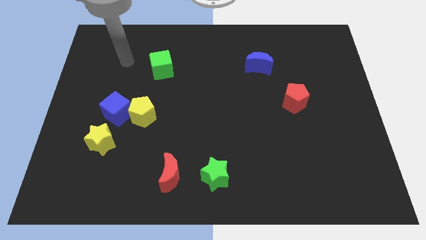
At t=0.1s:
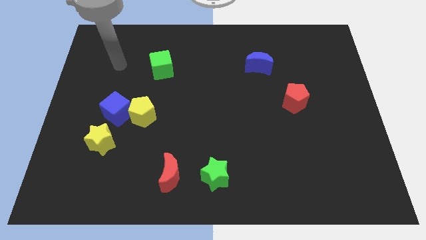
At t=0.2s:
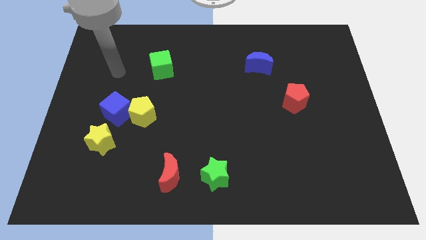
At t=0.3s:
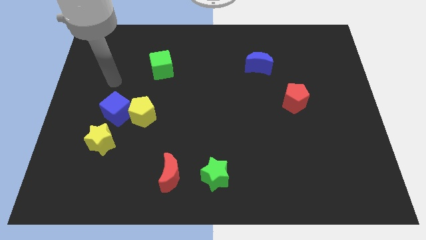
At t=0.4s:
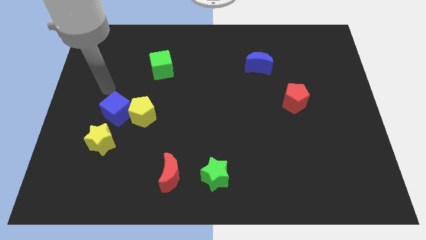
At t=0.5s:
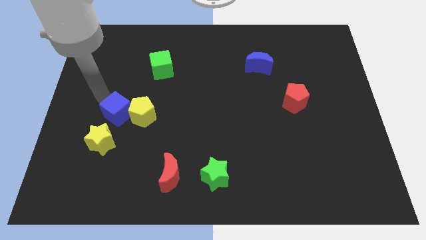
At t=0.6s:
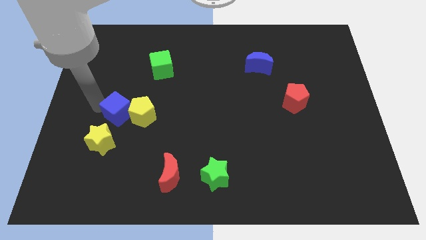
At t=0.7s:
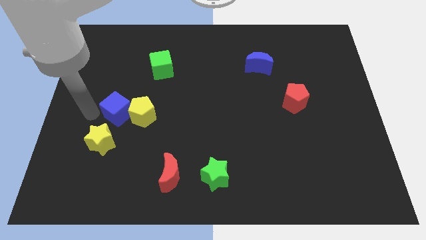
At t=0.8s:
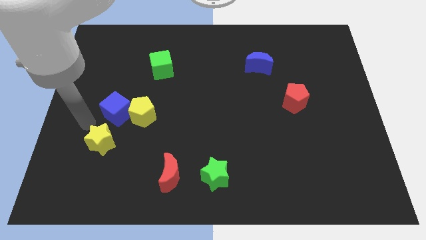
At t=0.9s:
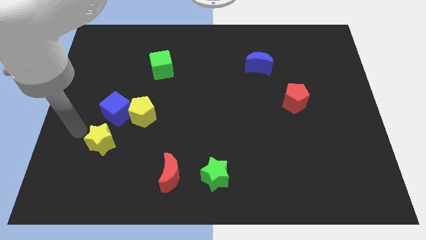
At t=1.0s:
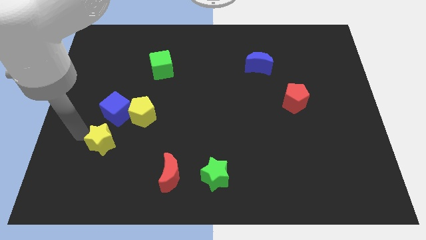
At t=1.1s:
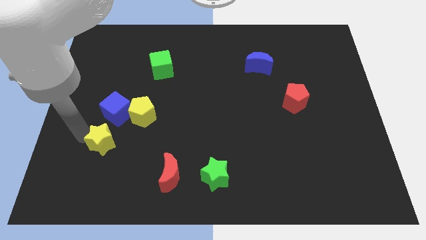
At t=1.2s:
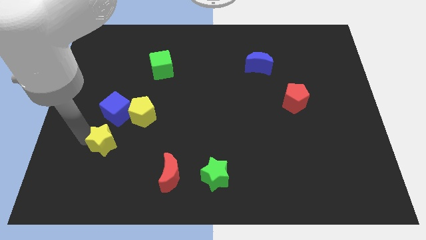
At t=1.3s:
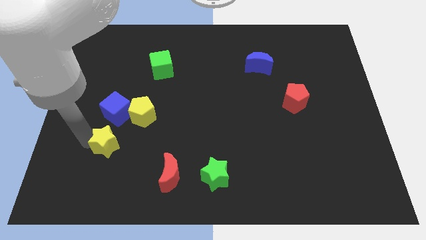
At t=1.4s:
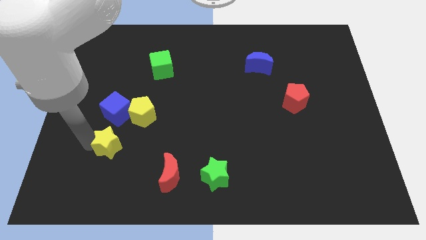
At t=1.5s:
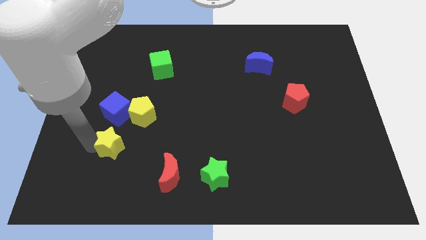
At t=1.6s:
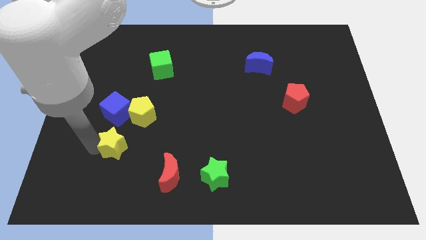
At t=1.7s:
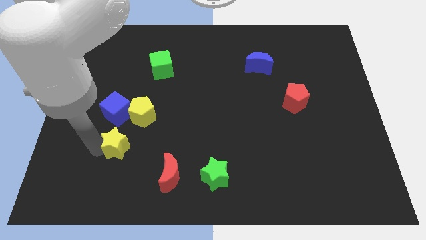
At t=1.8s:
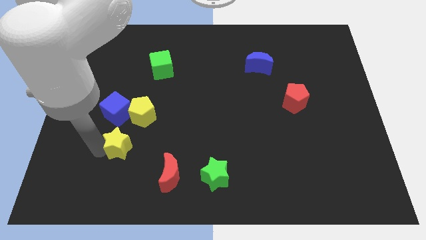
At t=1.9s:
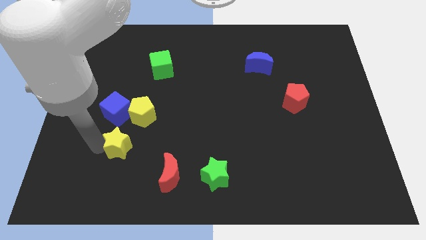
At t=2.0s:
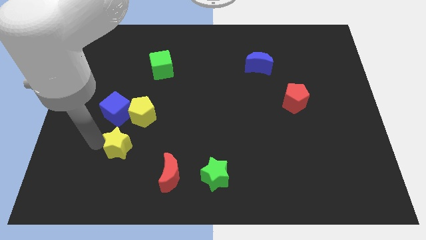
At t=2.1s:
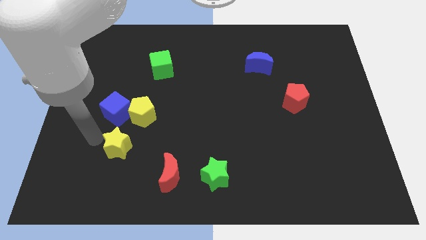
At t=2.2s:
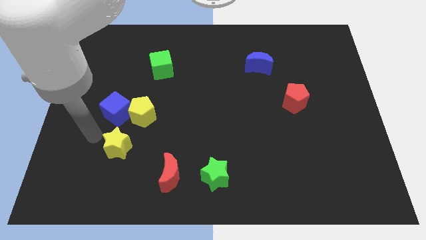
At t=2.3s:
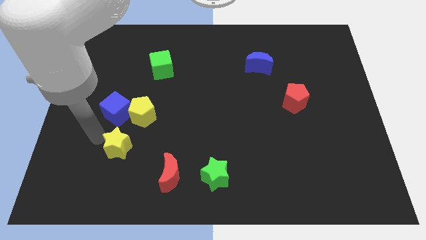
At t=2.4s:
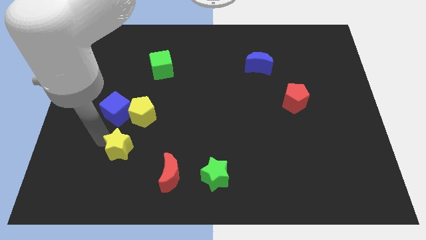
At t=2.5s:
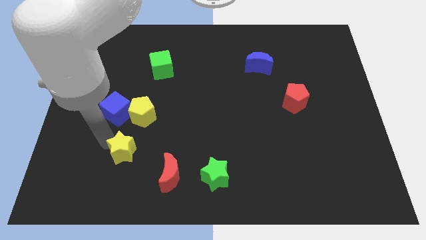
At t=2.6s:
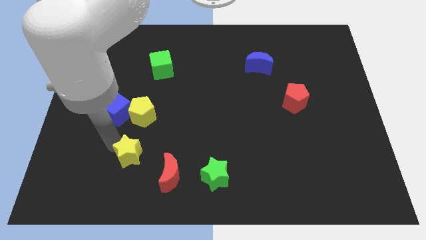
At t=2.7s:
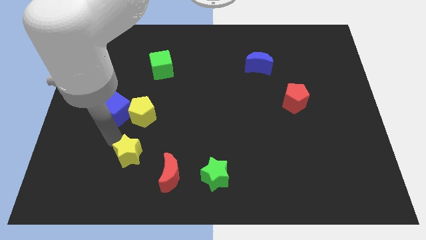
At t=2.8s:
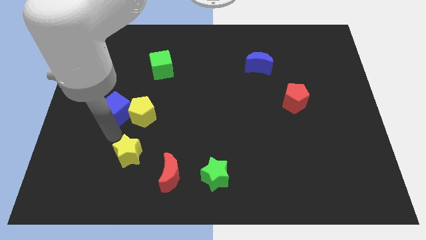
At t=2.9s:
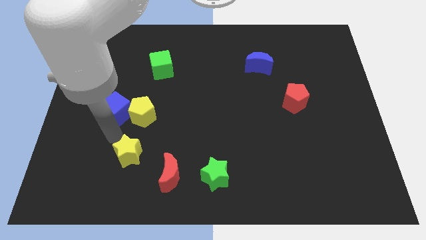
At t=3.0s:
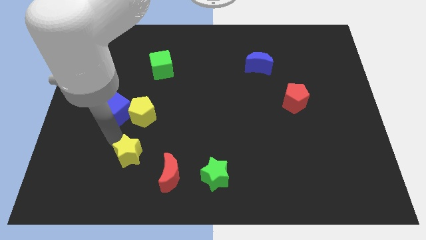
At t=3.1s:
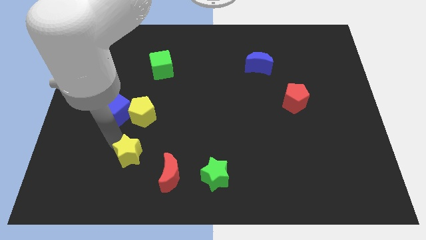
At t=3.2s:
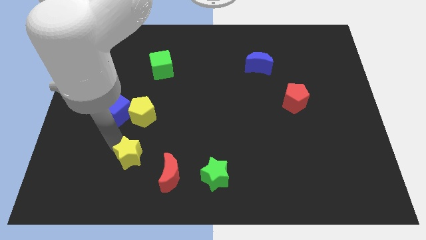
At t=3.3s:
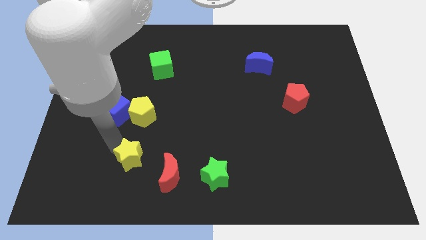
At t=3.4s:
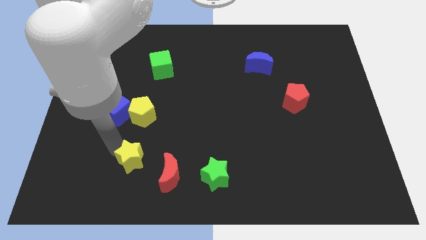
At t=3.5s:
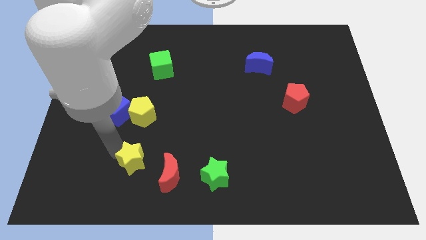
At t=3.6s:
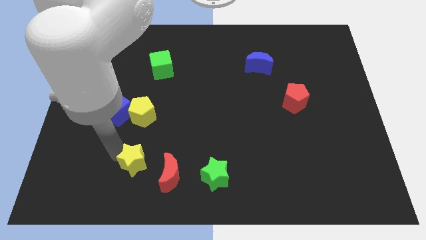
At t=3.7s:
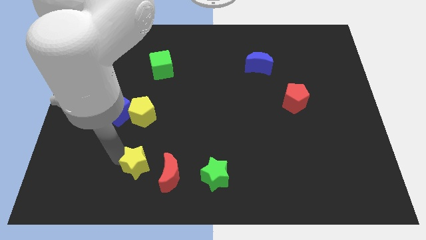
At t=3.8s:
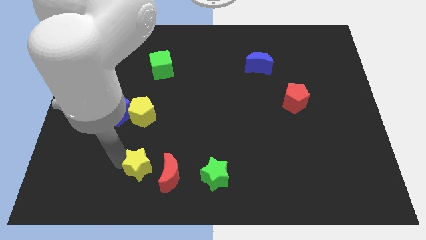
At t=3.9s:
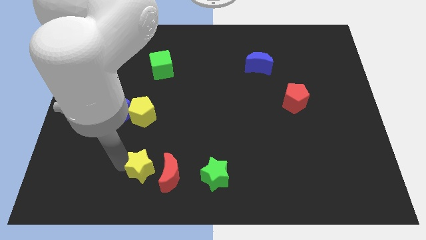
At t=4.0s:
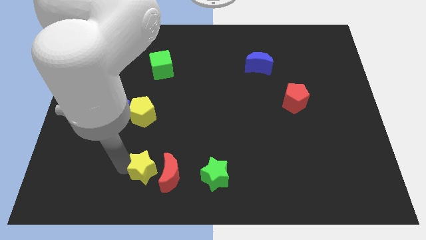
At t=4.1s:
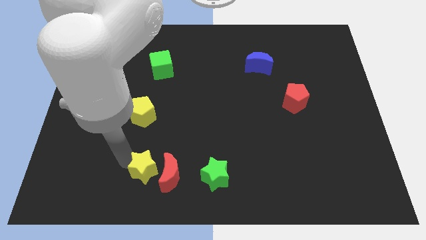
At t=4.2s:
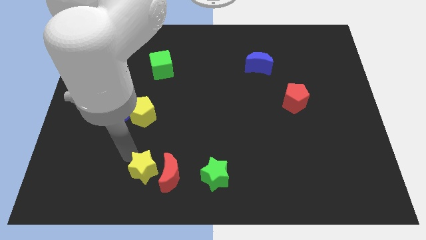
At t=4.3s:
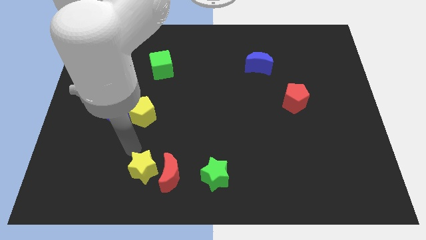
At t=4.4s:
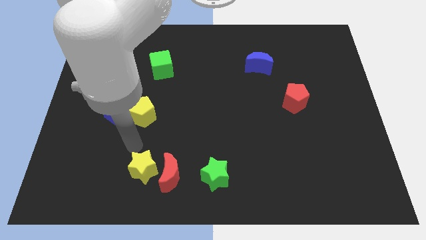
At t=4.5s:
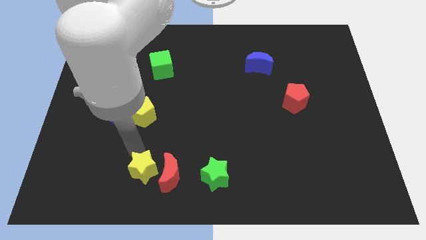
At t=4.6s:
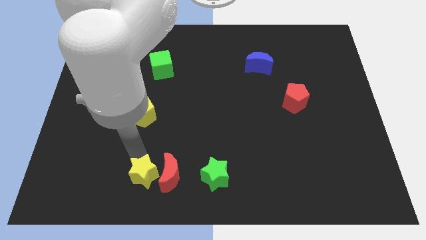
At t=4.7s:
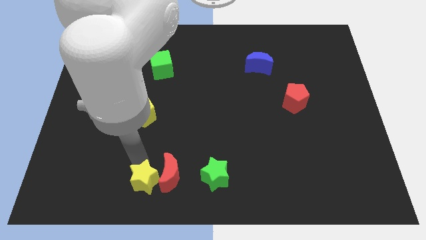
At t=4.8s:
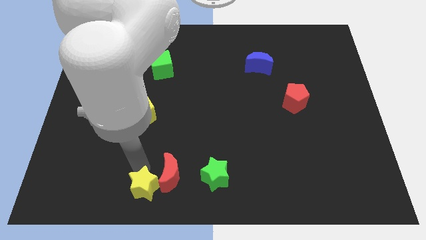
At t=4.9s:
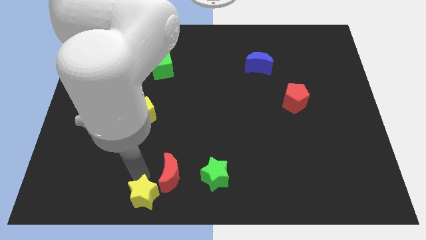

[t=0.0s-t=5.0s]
move the yellow star to the bottom side

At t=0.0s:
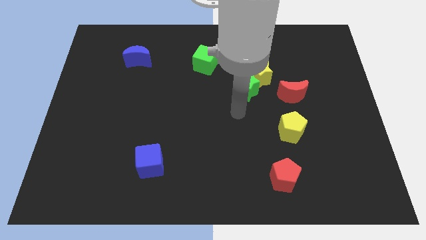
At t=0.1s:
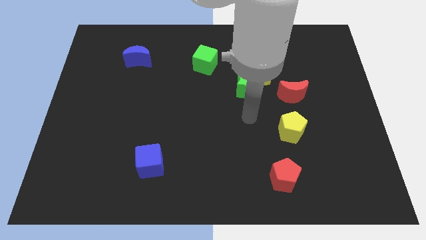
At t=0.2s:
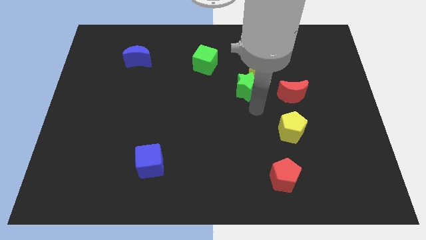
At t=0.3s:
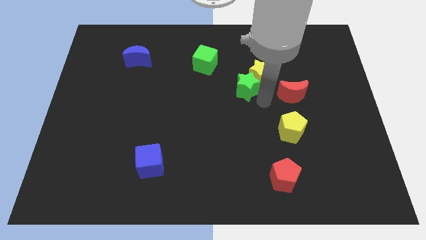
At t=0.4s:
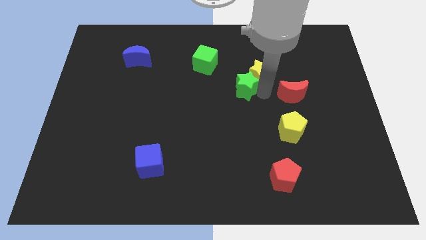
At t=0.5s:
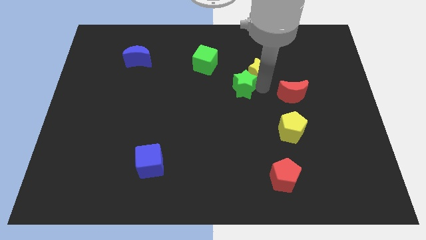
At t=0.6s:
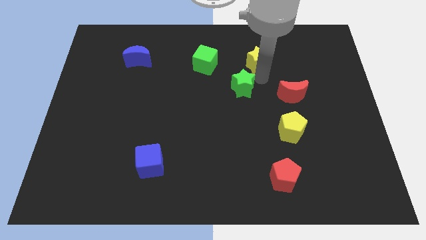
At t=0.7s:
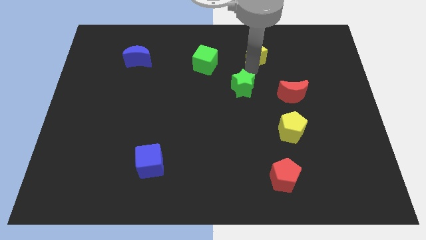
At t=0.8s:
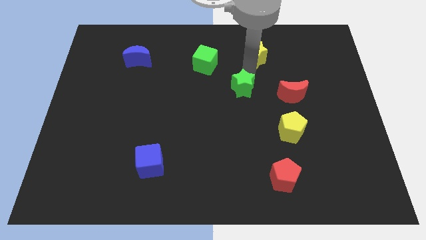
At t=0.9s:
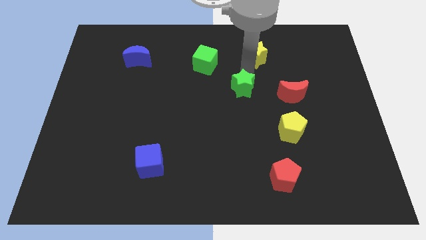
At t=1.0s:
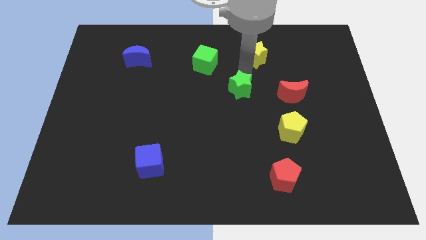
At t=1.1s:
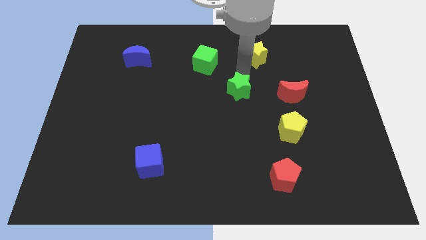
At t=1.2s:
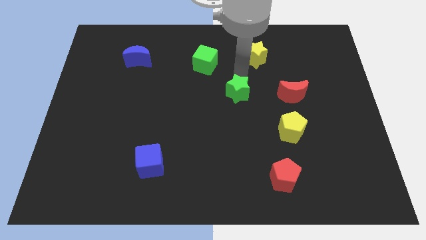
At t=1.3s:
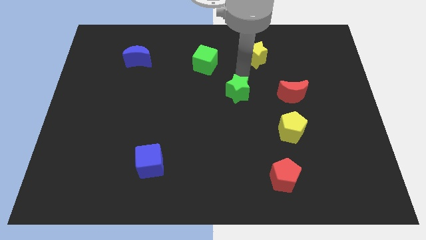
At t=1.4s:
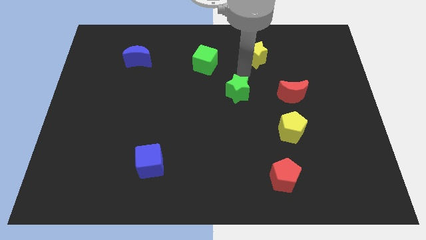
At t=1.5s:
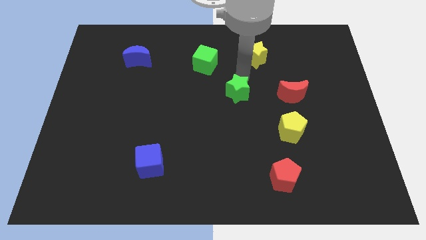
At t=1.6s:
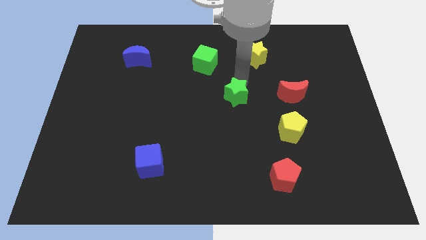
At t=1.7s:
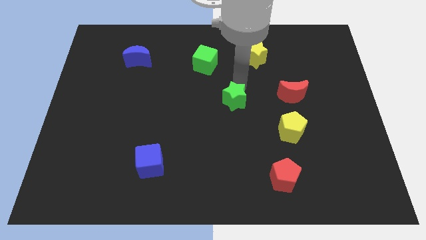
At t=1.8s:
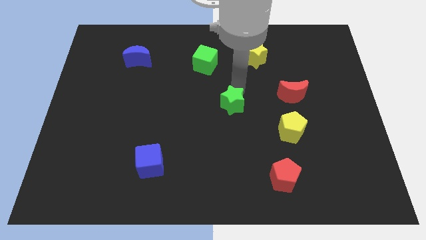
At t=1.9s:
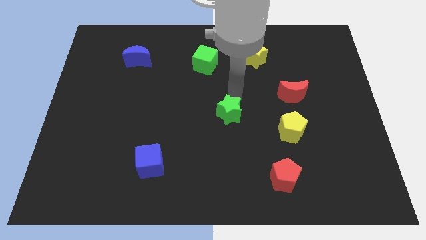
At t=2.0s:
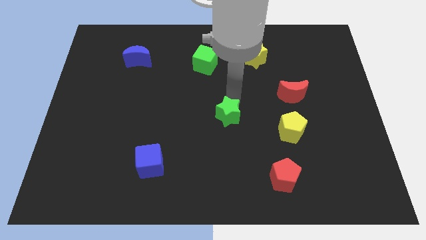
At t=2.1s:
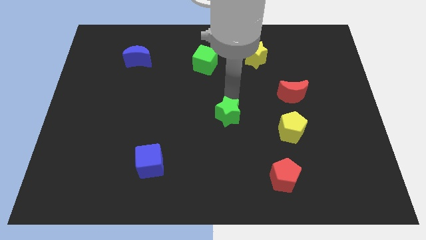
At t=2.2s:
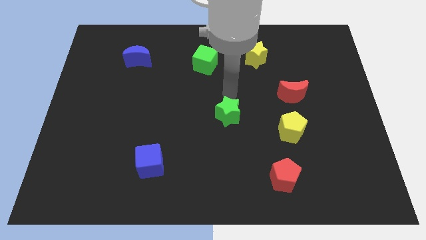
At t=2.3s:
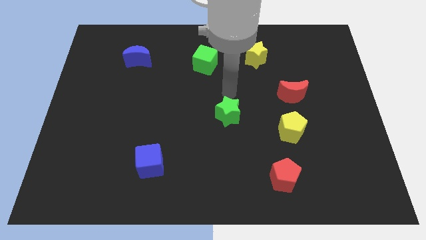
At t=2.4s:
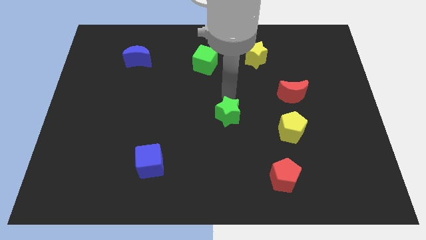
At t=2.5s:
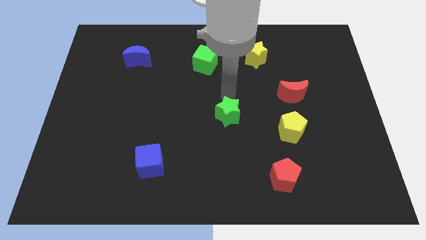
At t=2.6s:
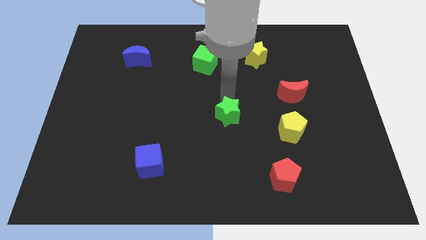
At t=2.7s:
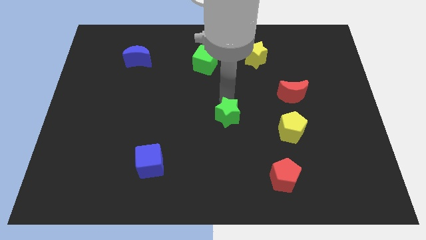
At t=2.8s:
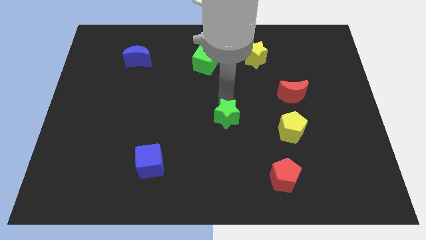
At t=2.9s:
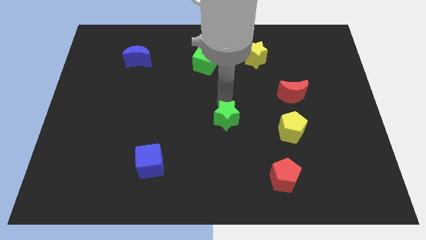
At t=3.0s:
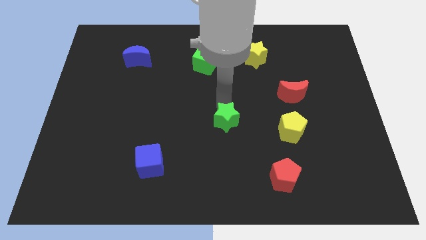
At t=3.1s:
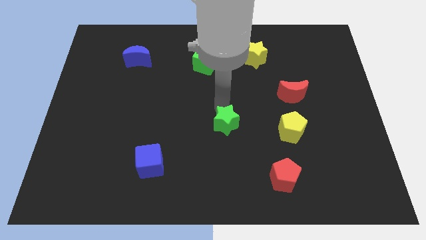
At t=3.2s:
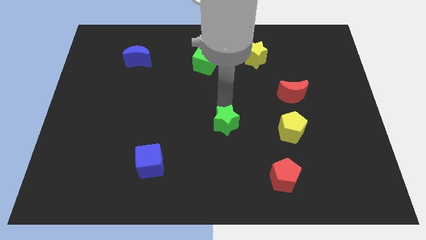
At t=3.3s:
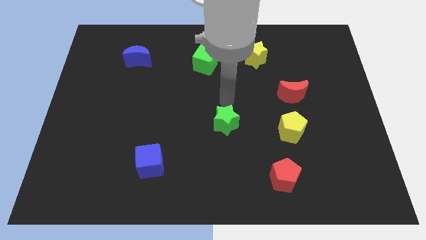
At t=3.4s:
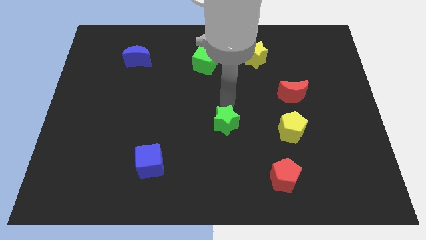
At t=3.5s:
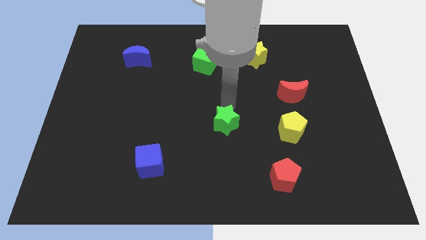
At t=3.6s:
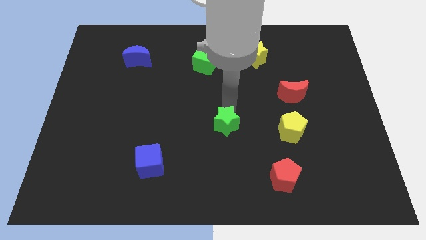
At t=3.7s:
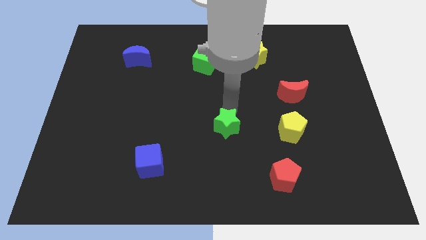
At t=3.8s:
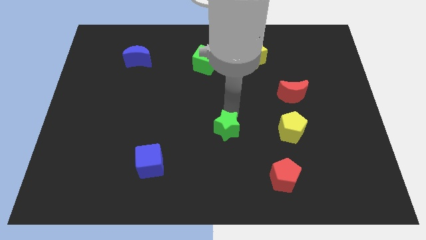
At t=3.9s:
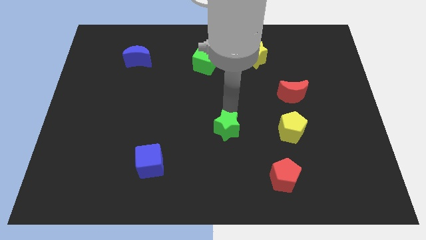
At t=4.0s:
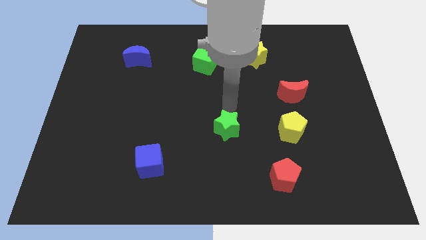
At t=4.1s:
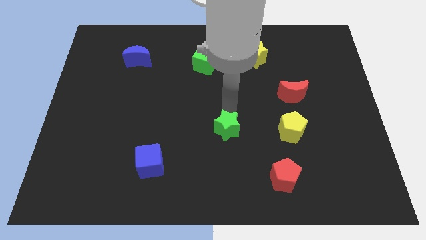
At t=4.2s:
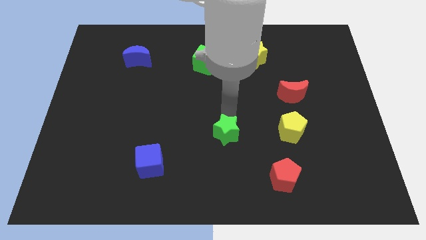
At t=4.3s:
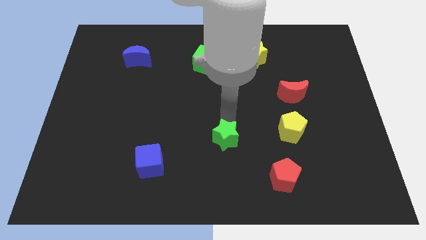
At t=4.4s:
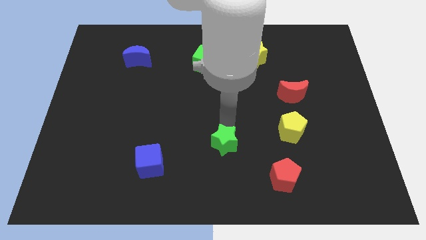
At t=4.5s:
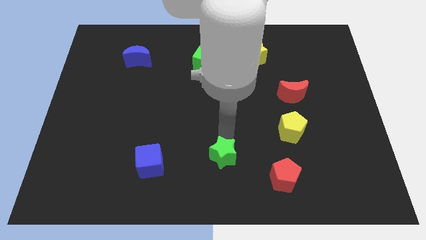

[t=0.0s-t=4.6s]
slide the green star to the bottom
